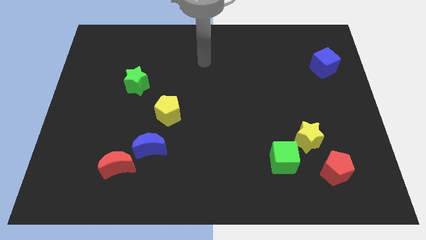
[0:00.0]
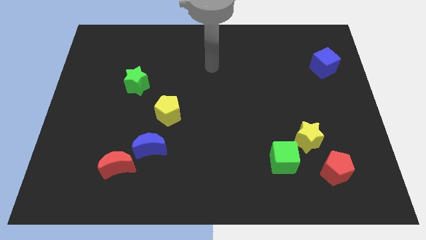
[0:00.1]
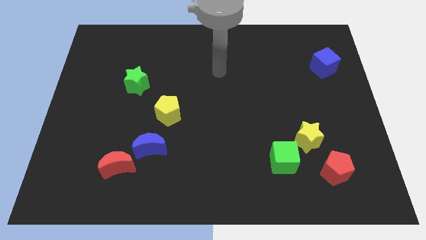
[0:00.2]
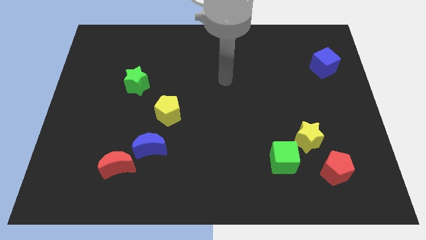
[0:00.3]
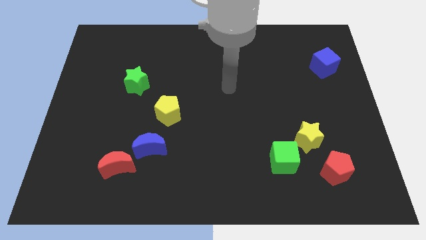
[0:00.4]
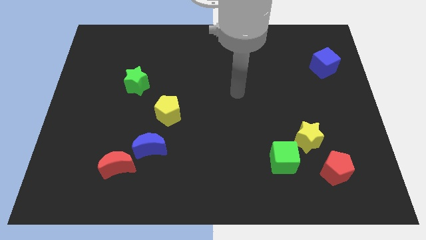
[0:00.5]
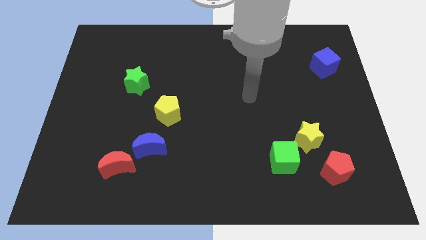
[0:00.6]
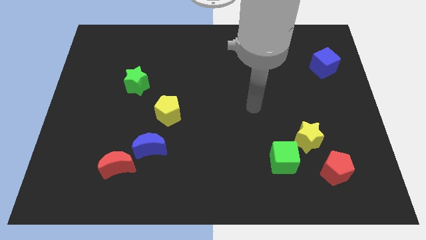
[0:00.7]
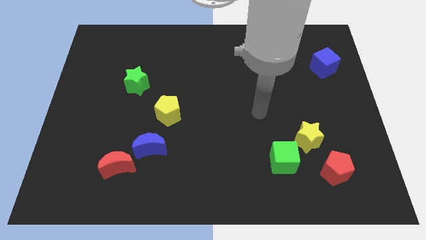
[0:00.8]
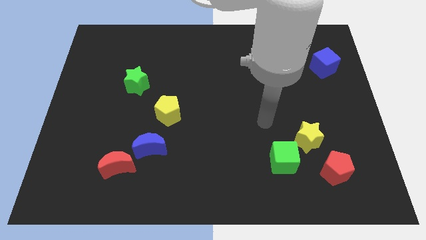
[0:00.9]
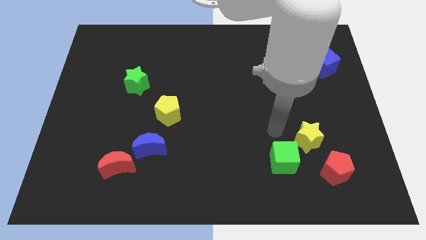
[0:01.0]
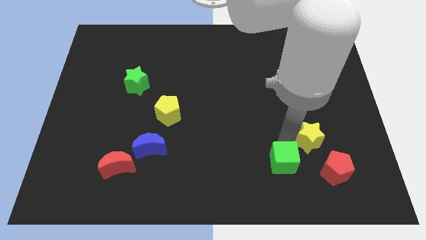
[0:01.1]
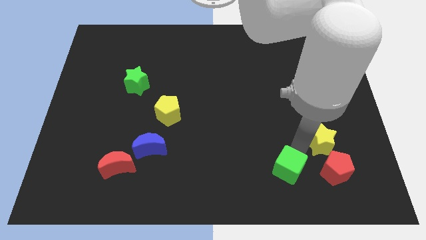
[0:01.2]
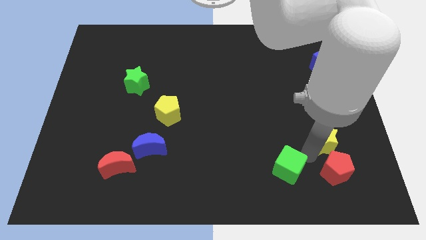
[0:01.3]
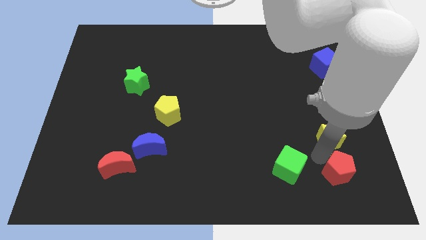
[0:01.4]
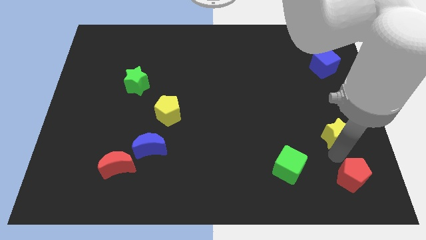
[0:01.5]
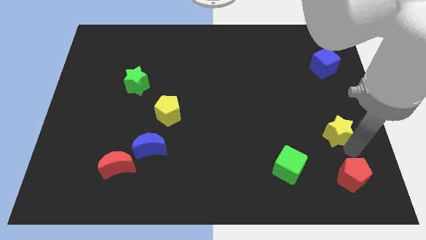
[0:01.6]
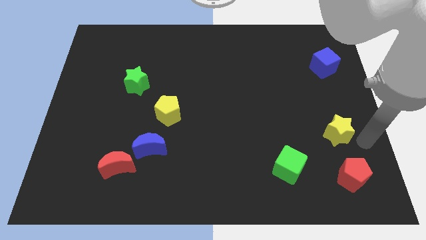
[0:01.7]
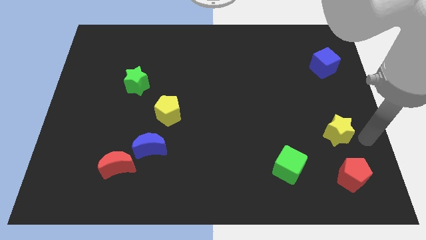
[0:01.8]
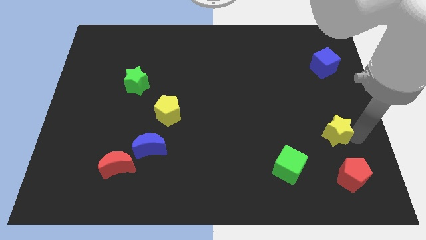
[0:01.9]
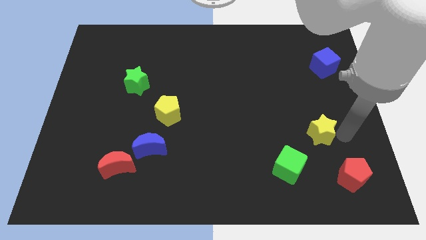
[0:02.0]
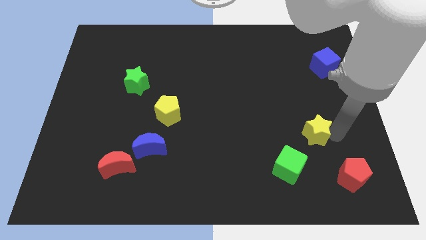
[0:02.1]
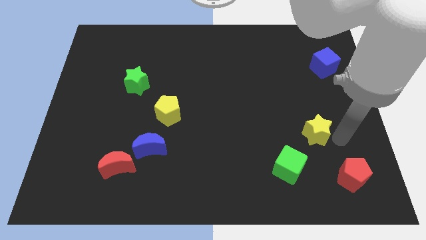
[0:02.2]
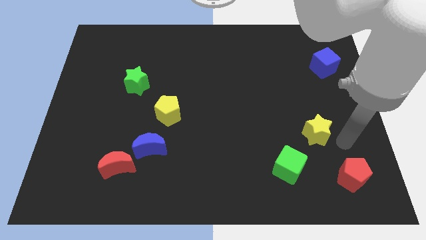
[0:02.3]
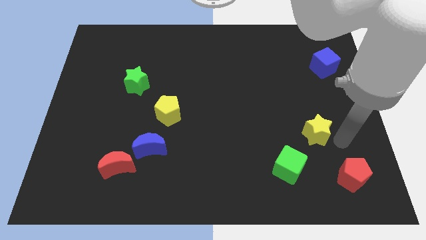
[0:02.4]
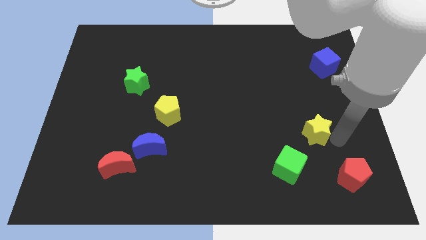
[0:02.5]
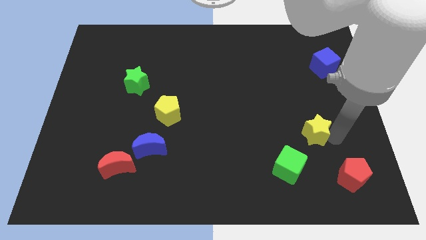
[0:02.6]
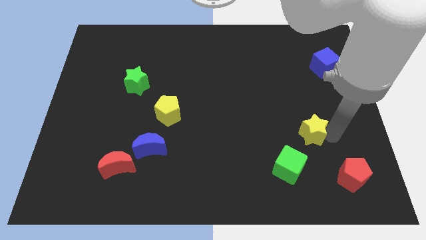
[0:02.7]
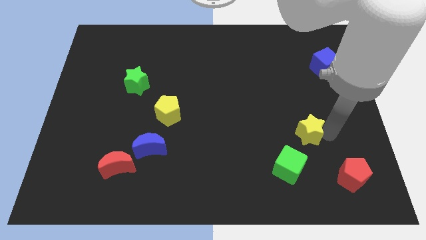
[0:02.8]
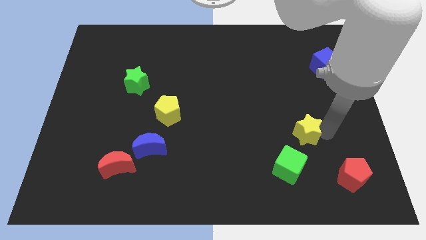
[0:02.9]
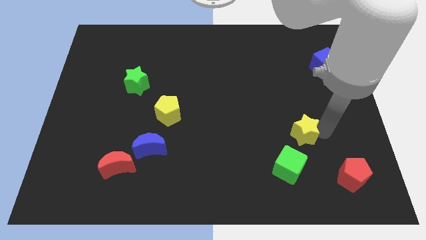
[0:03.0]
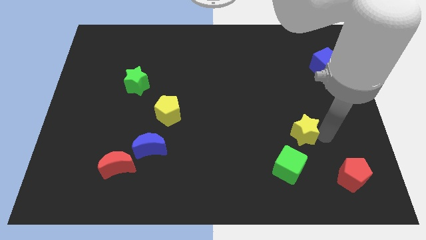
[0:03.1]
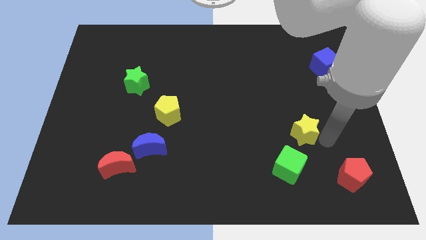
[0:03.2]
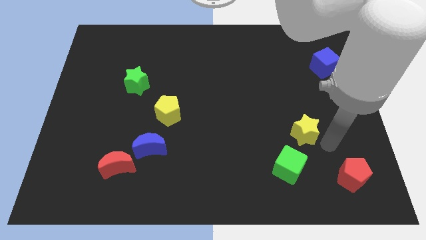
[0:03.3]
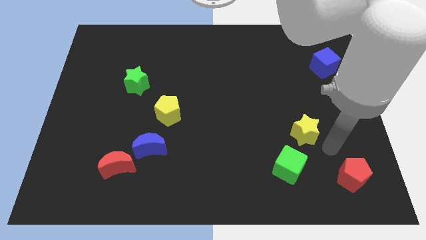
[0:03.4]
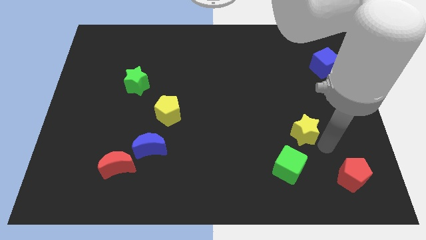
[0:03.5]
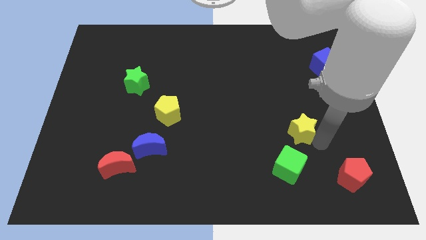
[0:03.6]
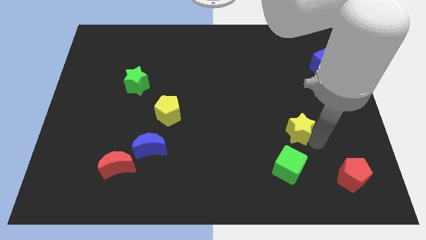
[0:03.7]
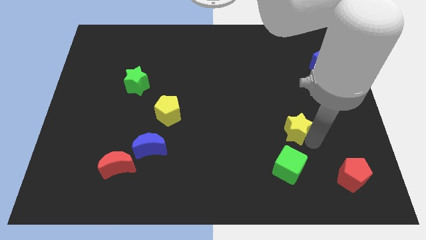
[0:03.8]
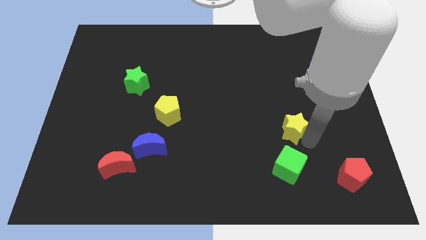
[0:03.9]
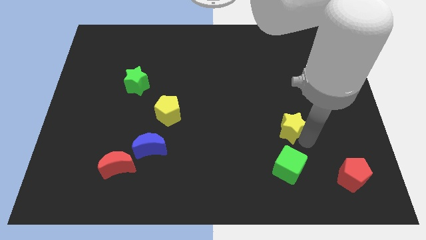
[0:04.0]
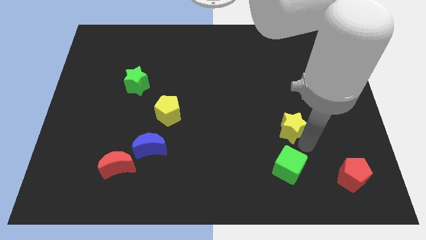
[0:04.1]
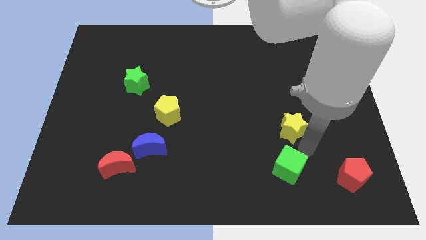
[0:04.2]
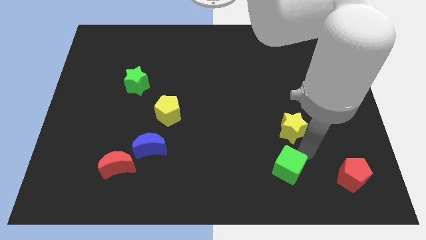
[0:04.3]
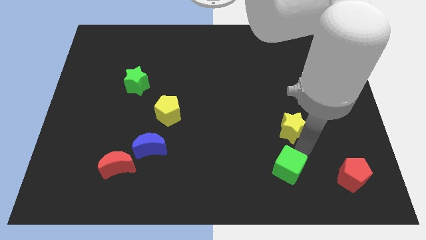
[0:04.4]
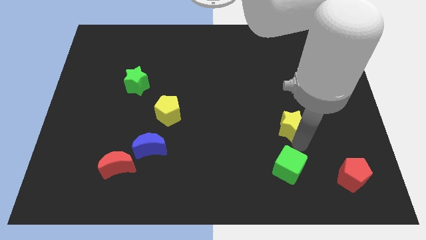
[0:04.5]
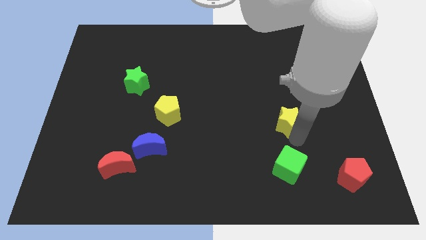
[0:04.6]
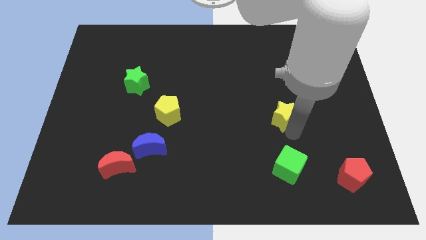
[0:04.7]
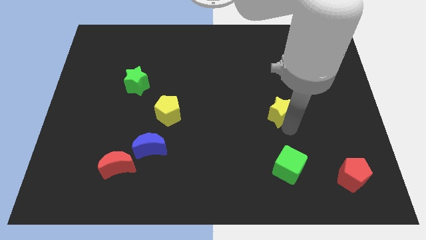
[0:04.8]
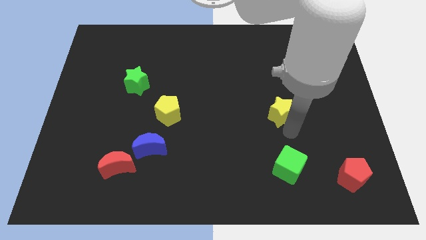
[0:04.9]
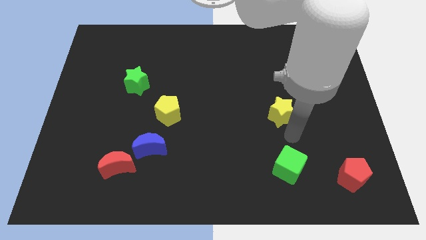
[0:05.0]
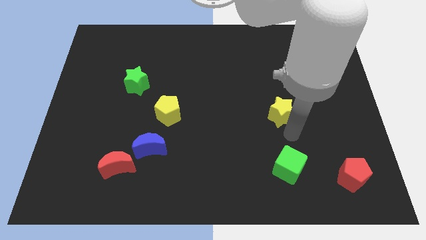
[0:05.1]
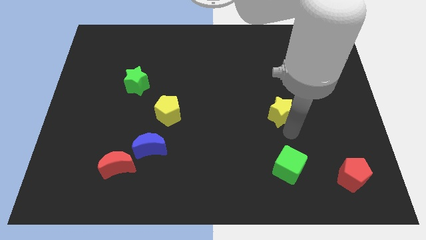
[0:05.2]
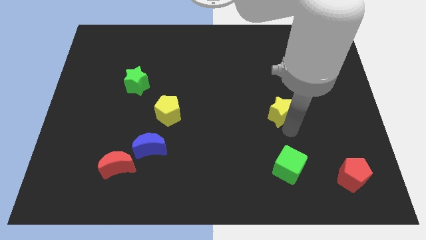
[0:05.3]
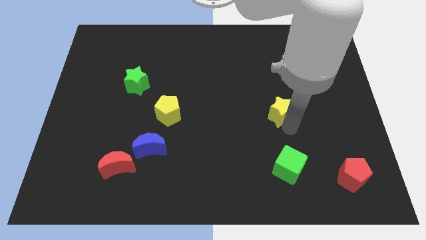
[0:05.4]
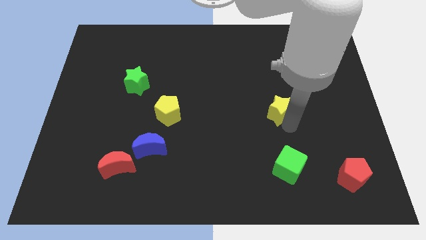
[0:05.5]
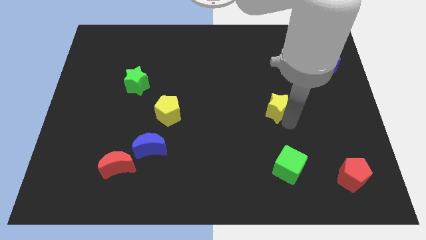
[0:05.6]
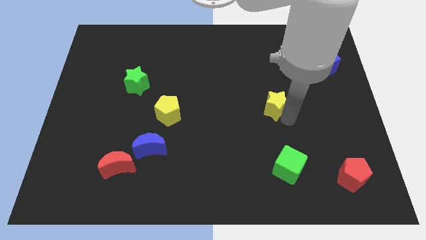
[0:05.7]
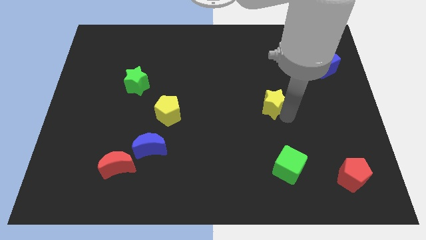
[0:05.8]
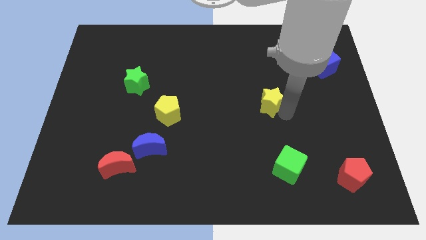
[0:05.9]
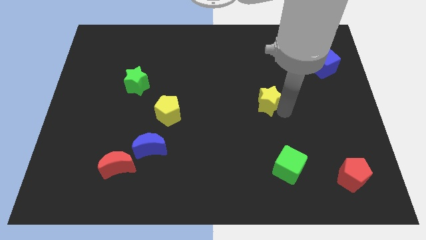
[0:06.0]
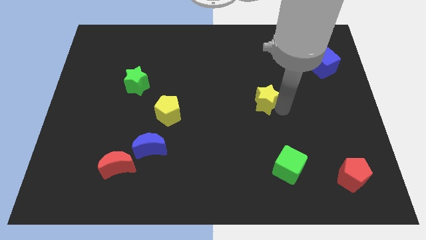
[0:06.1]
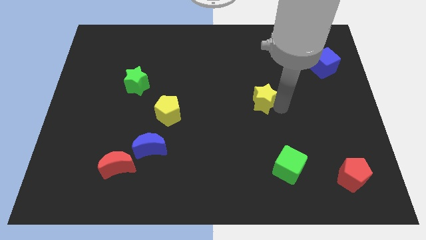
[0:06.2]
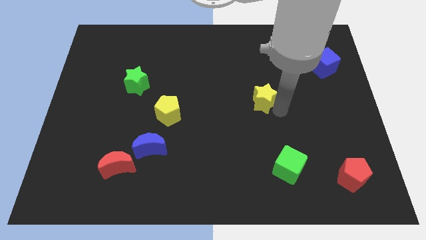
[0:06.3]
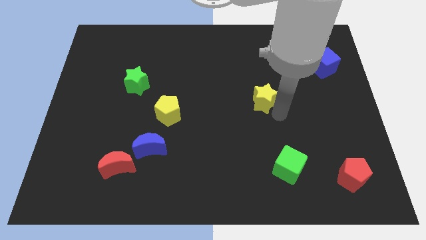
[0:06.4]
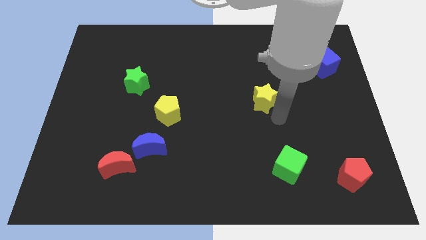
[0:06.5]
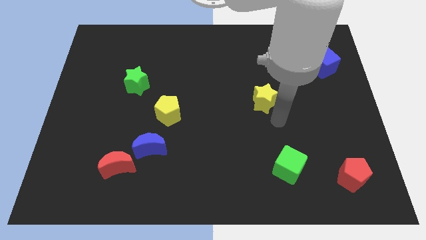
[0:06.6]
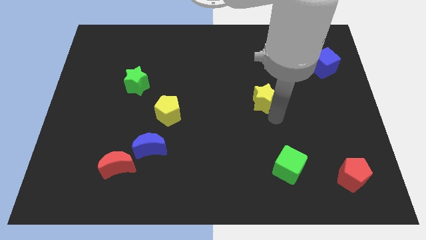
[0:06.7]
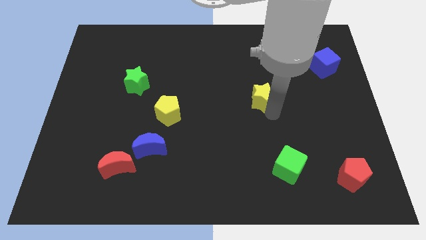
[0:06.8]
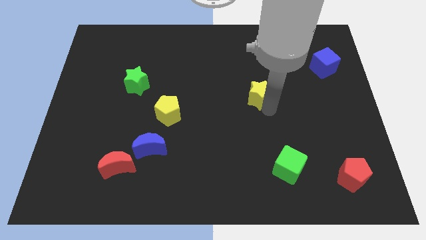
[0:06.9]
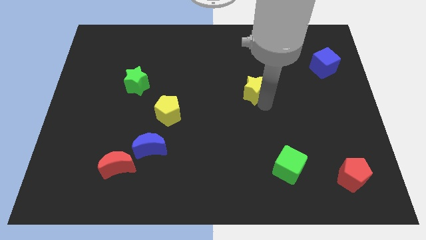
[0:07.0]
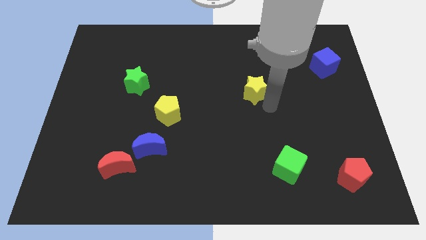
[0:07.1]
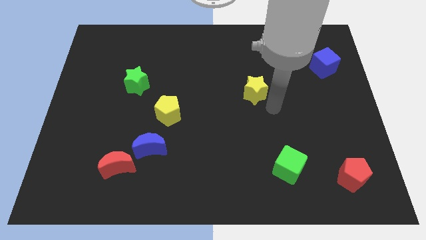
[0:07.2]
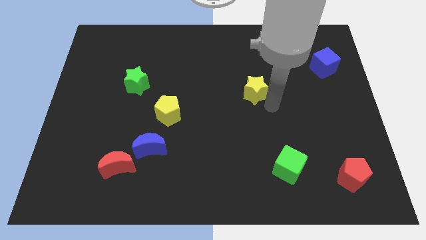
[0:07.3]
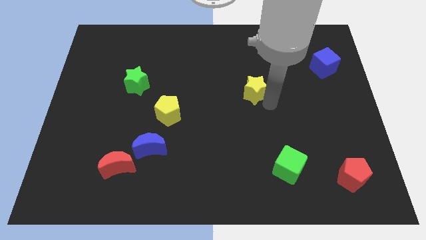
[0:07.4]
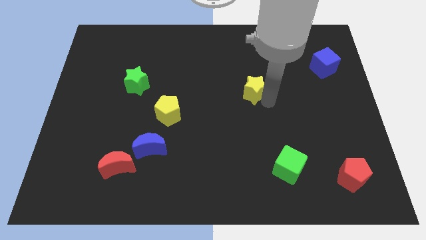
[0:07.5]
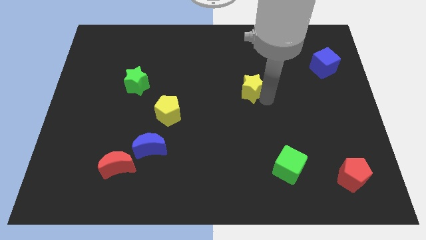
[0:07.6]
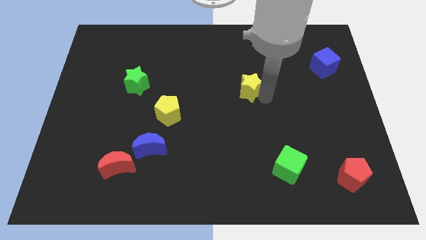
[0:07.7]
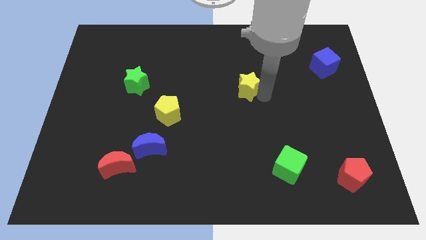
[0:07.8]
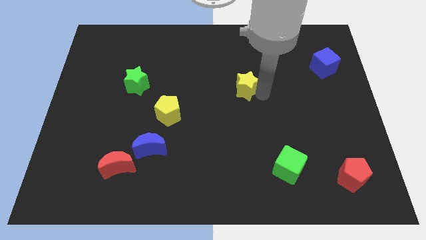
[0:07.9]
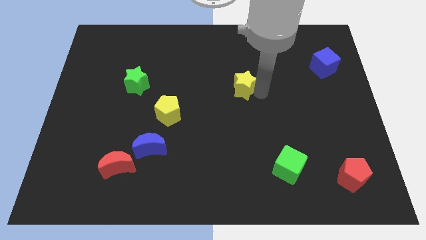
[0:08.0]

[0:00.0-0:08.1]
push the yellow star upwards and then to the left
